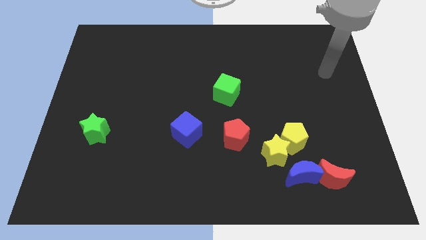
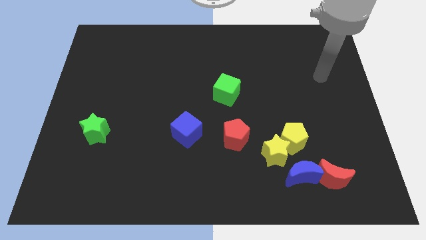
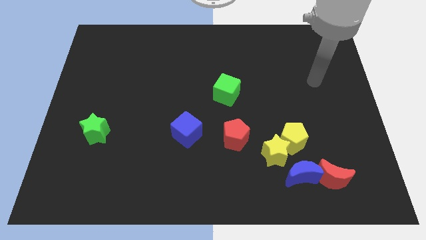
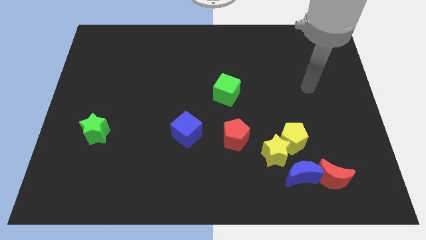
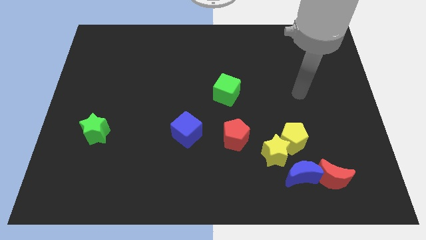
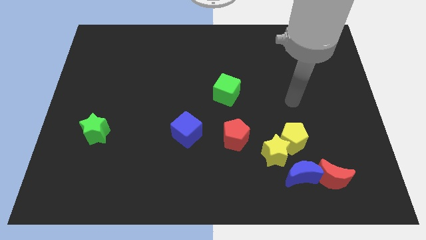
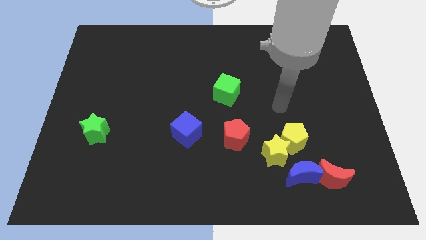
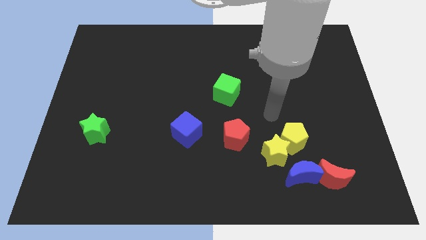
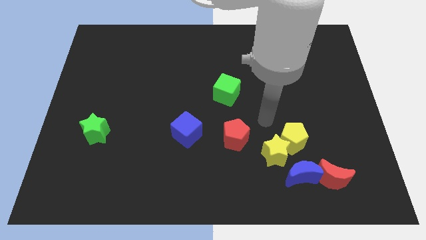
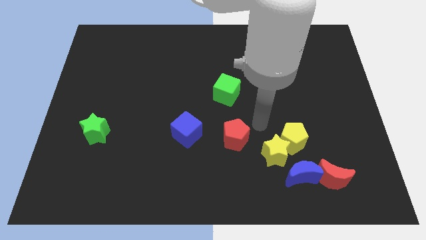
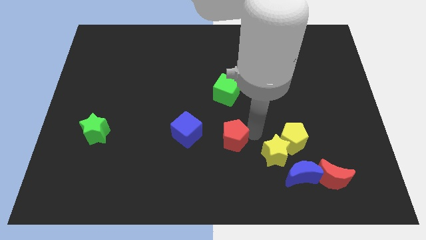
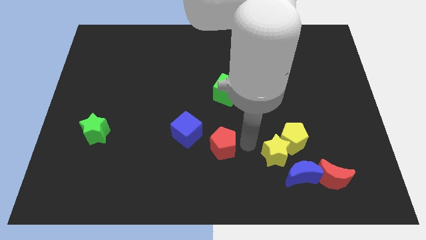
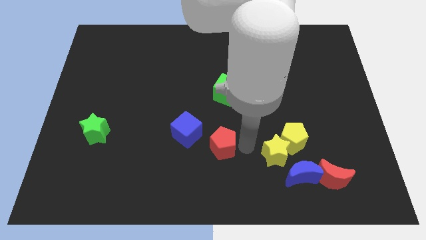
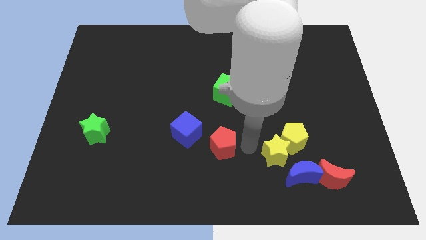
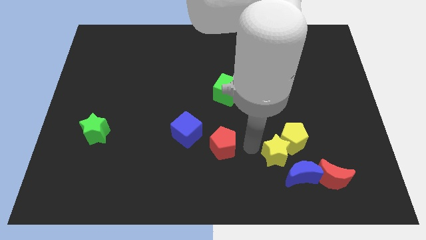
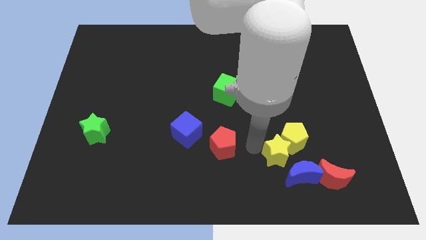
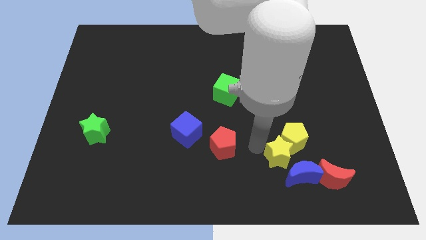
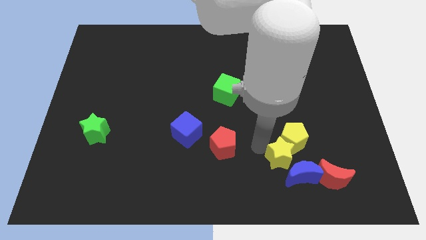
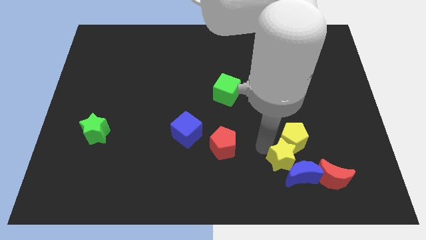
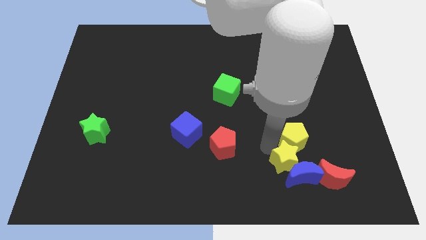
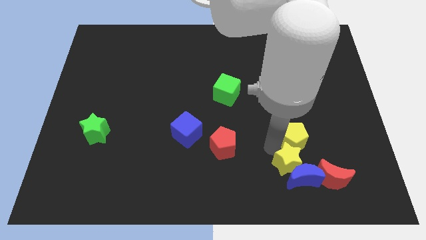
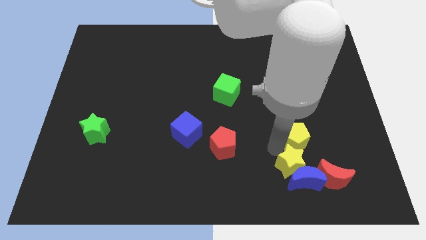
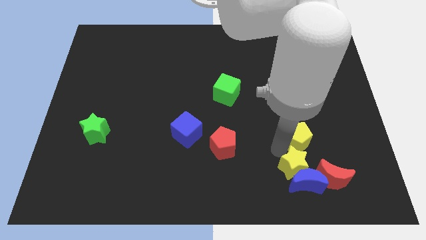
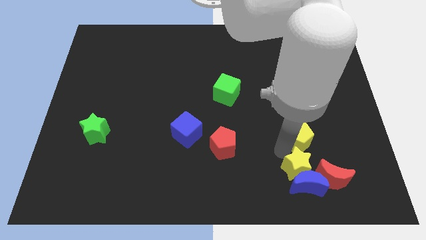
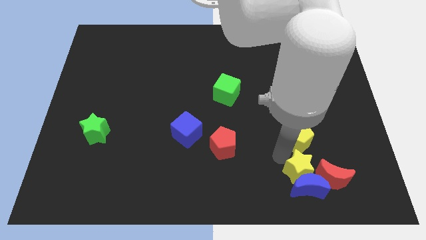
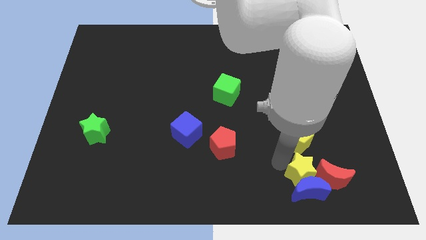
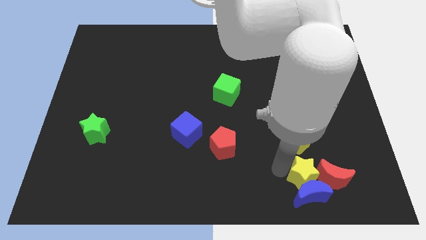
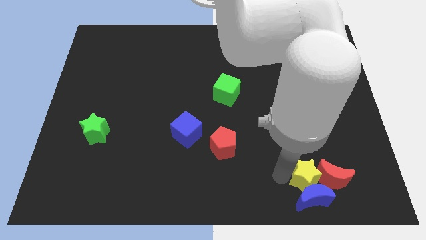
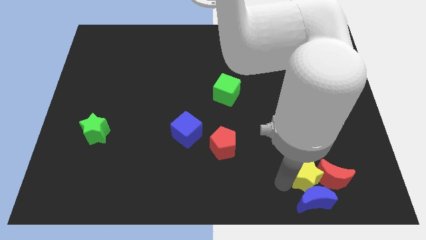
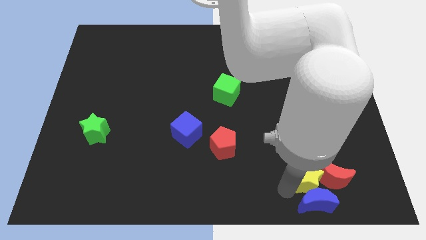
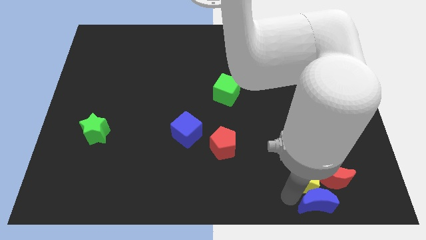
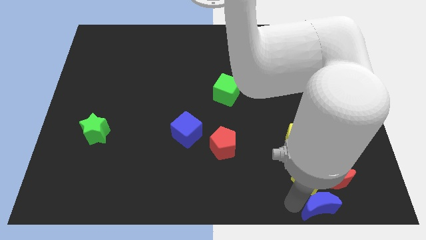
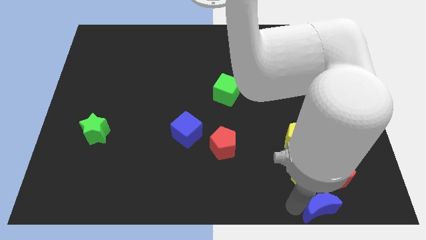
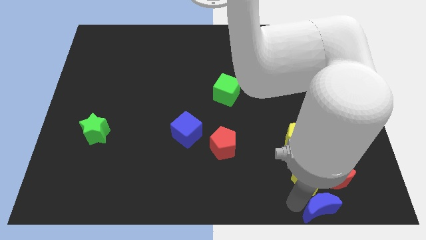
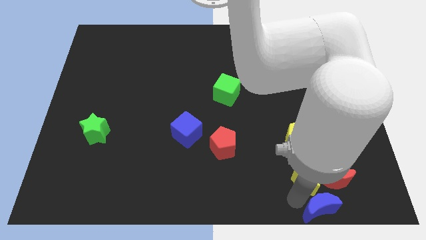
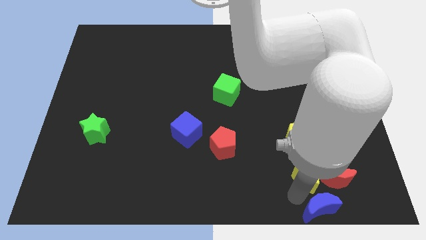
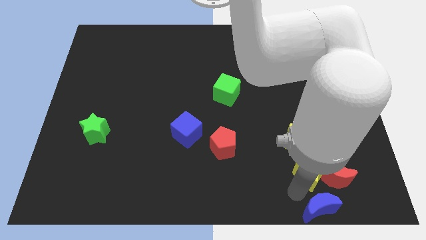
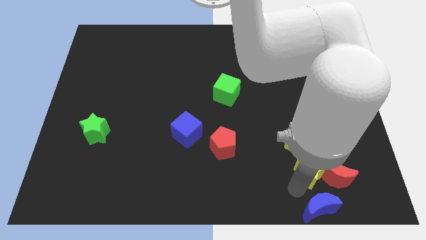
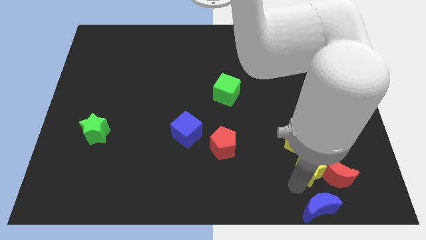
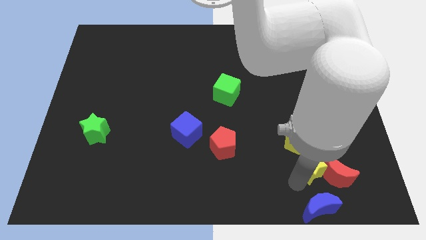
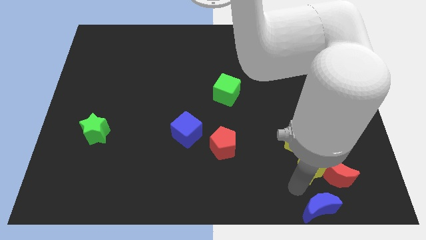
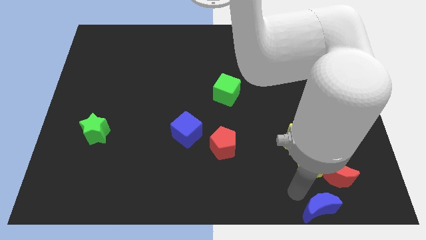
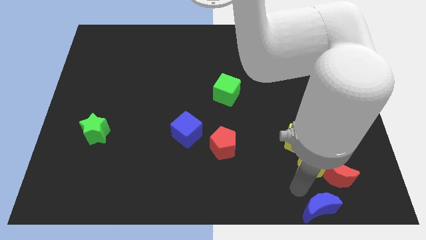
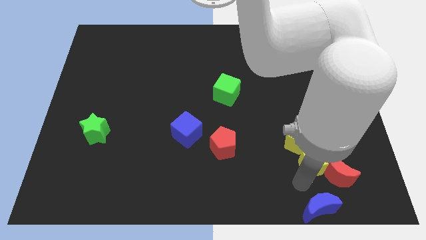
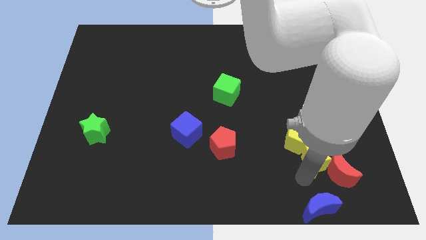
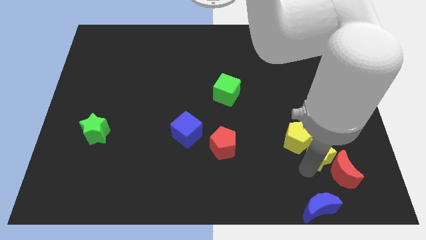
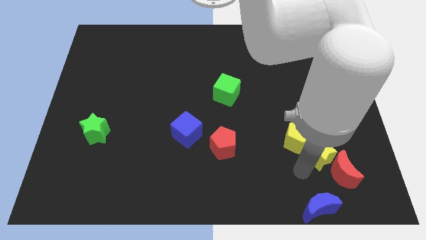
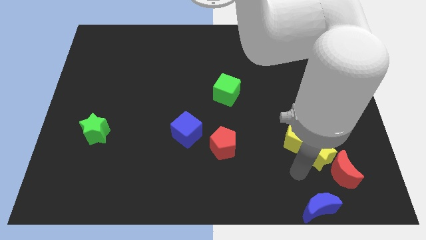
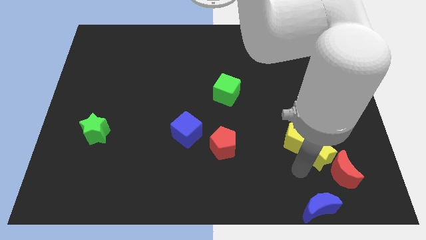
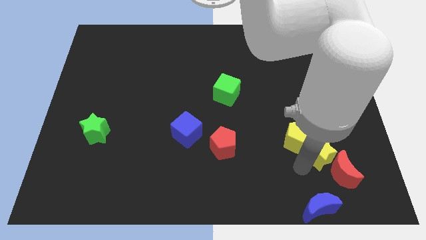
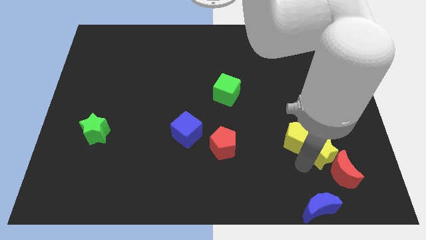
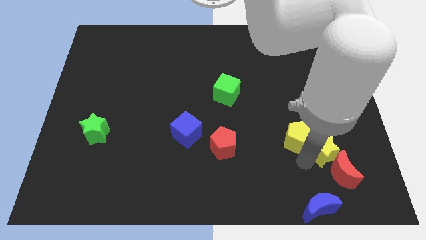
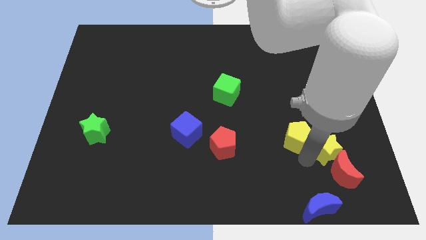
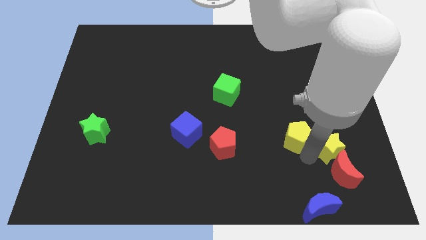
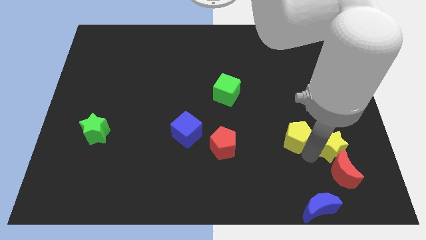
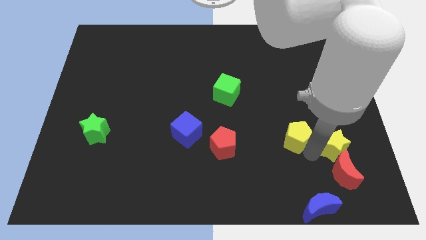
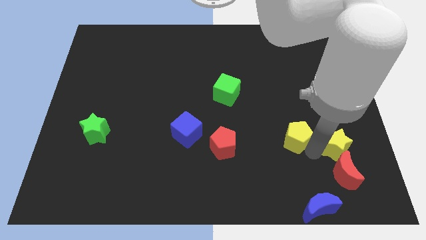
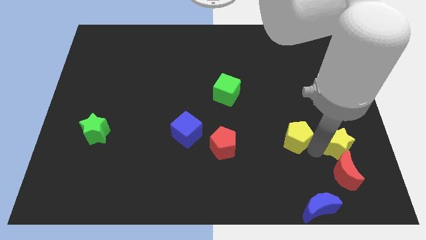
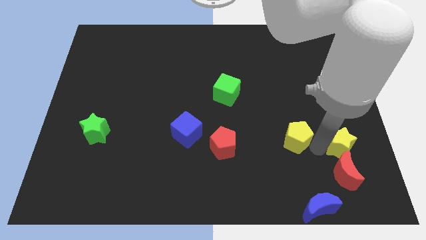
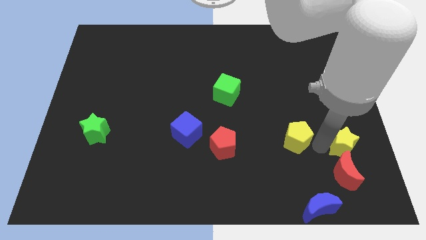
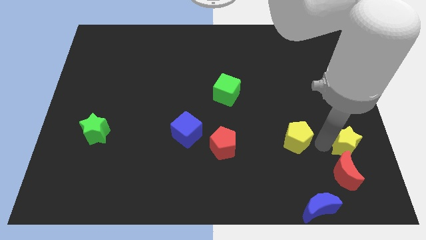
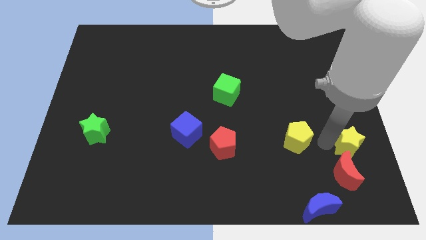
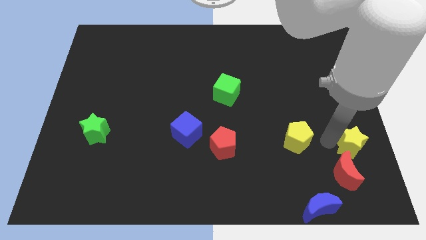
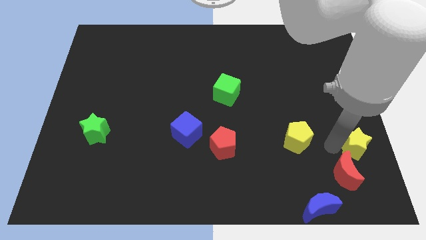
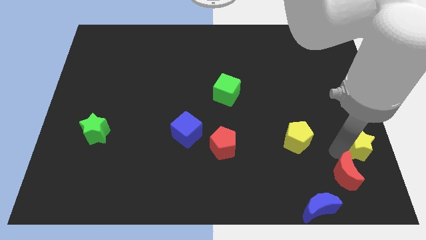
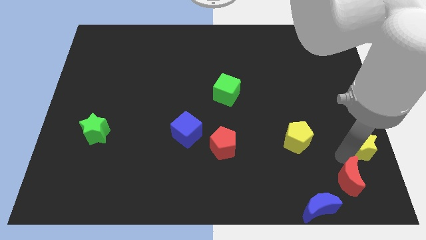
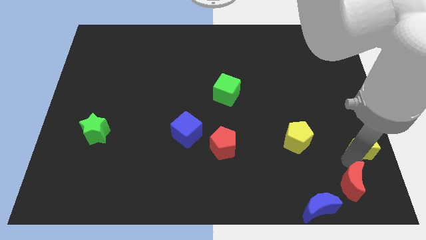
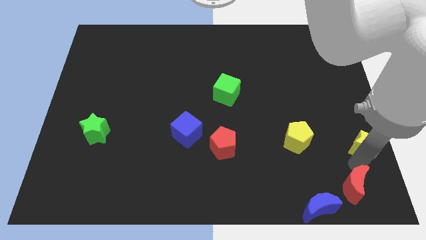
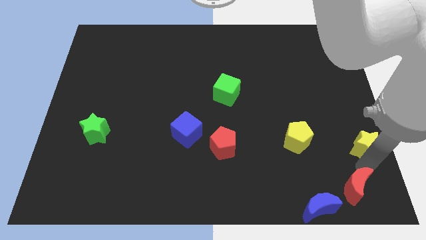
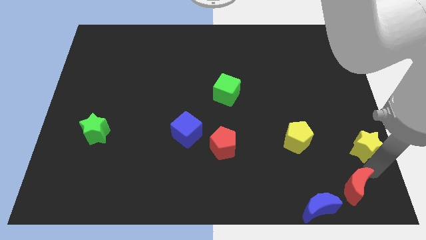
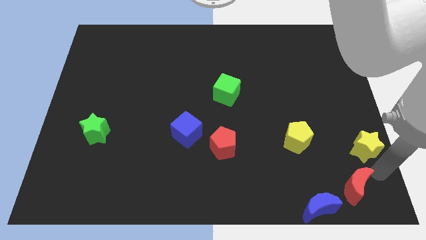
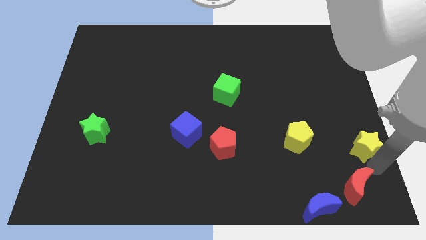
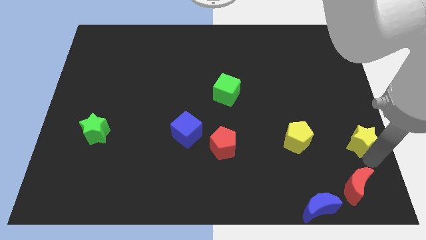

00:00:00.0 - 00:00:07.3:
slide the yellow star to the center right
